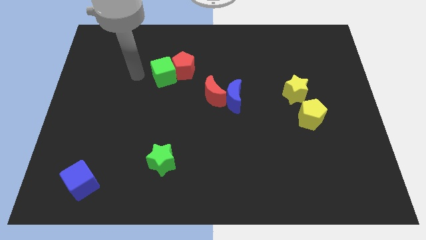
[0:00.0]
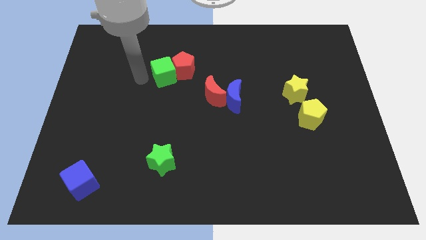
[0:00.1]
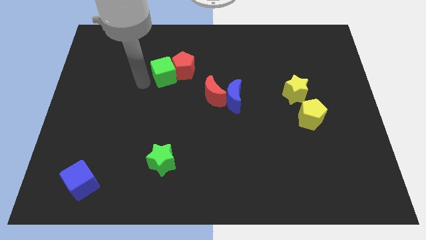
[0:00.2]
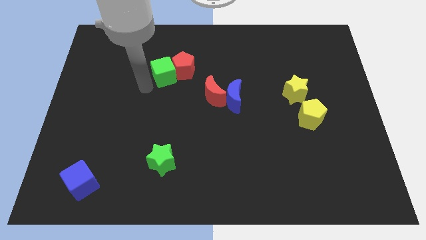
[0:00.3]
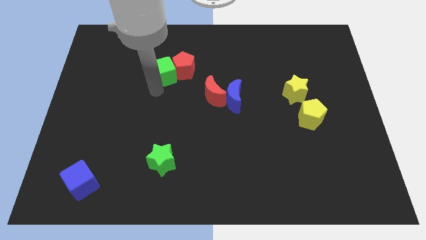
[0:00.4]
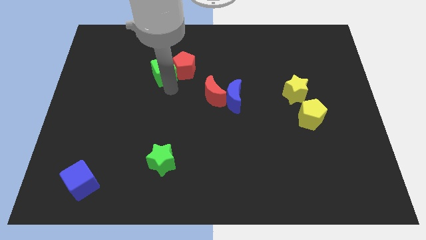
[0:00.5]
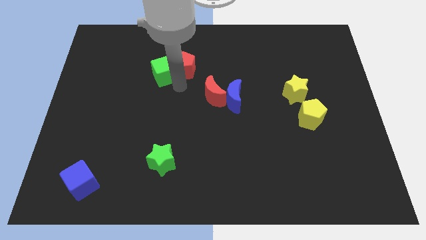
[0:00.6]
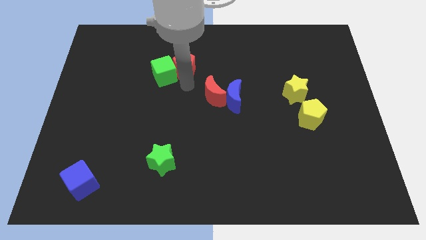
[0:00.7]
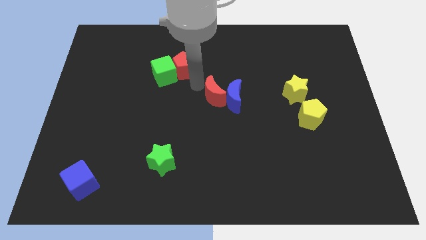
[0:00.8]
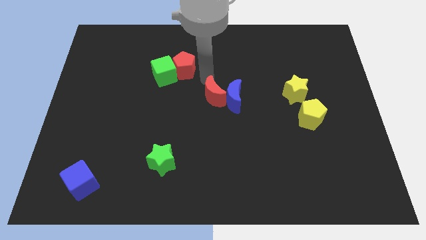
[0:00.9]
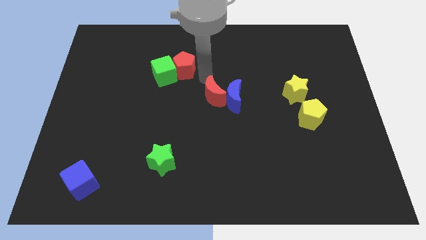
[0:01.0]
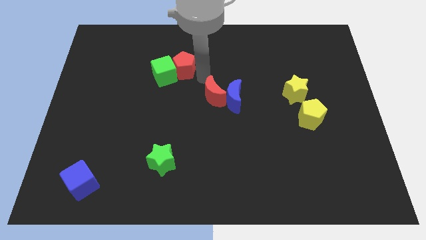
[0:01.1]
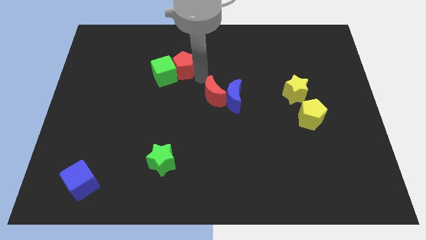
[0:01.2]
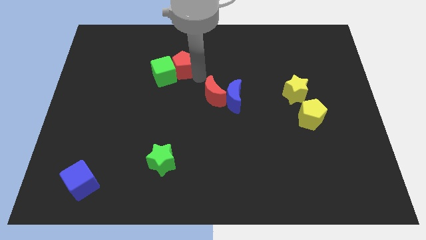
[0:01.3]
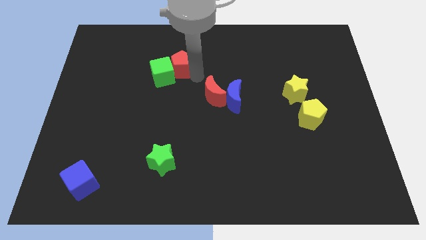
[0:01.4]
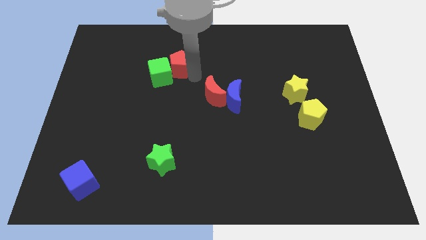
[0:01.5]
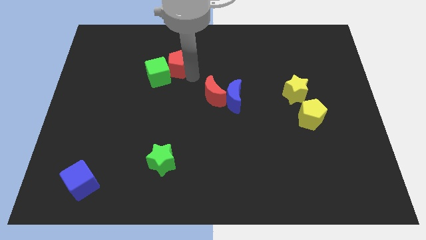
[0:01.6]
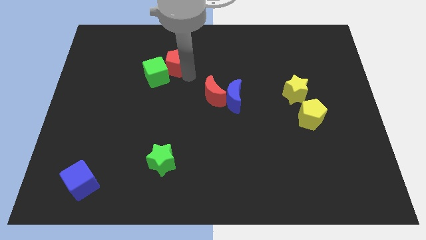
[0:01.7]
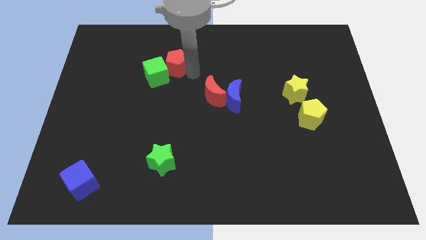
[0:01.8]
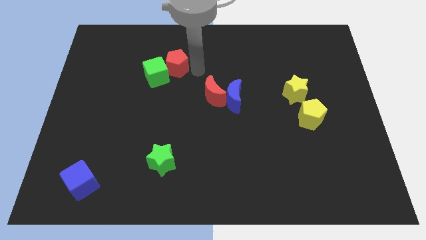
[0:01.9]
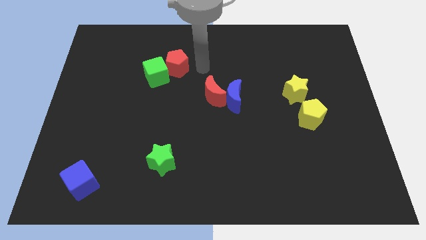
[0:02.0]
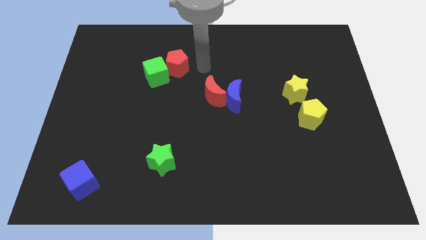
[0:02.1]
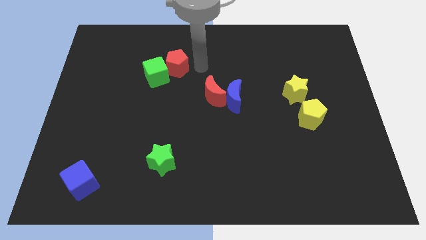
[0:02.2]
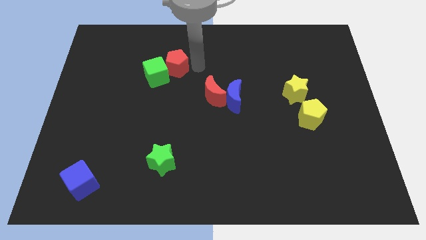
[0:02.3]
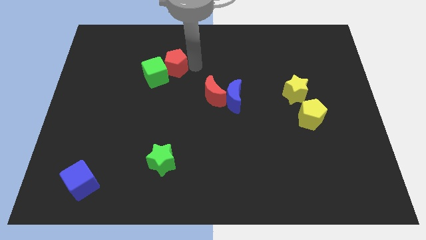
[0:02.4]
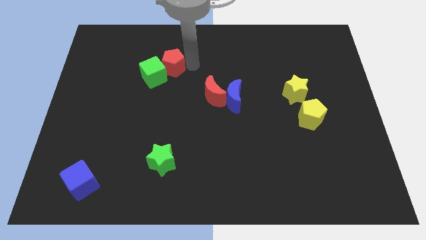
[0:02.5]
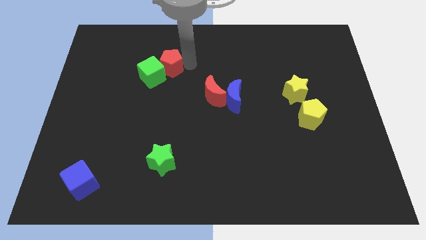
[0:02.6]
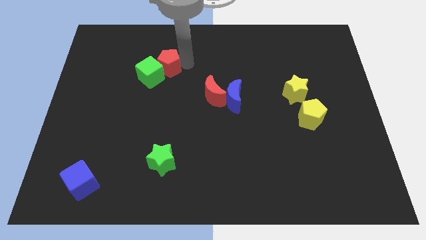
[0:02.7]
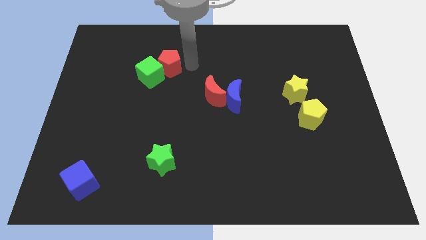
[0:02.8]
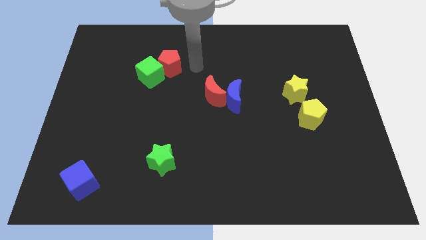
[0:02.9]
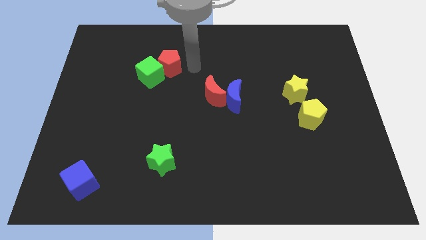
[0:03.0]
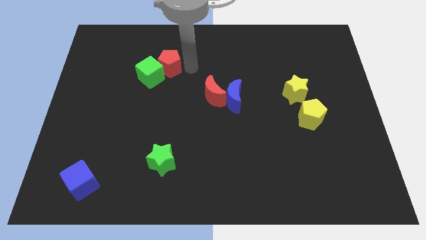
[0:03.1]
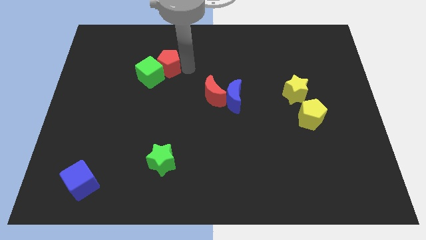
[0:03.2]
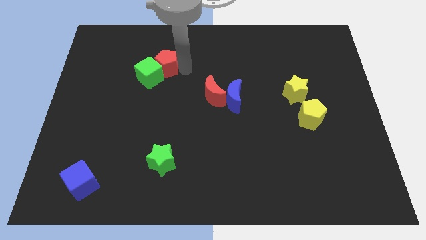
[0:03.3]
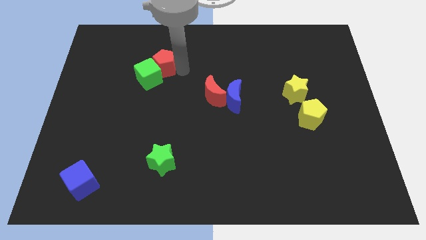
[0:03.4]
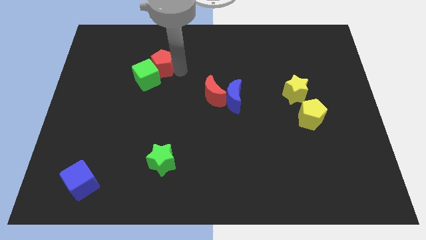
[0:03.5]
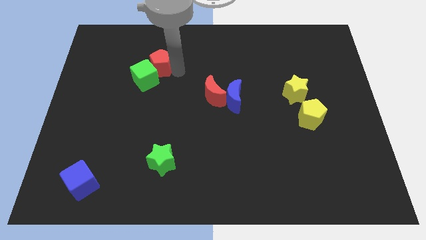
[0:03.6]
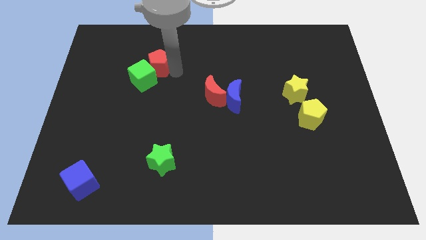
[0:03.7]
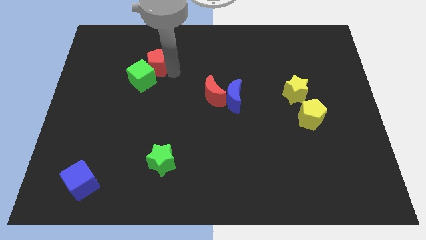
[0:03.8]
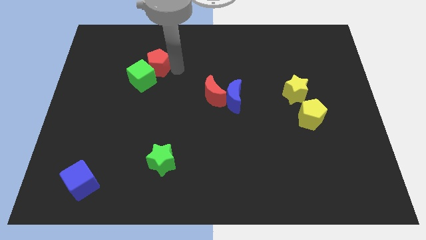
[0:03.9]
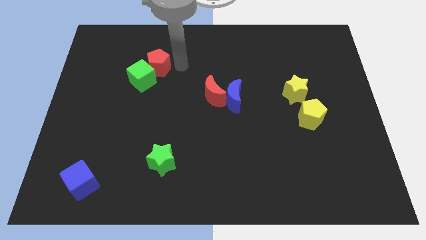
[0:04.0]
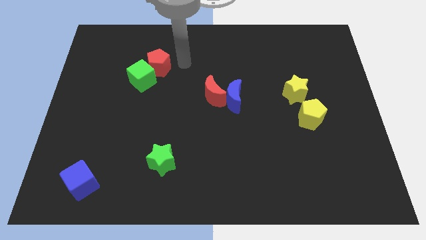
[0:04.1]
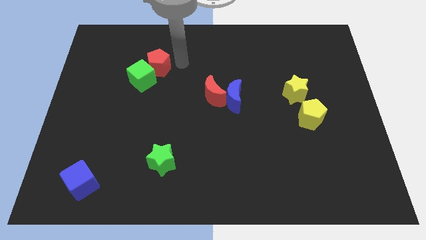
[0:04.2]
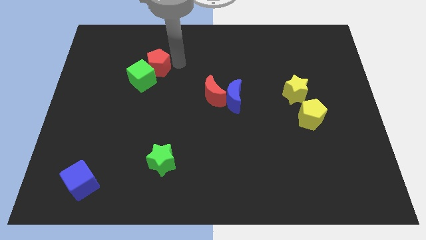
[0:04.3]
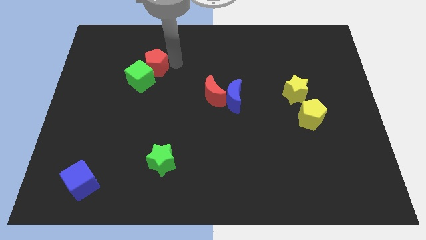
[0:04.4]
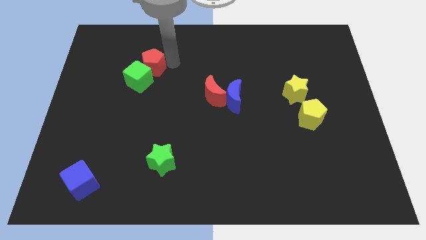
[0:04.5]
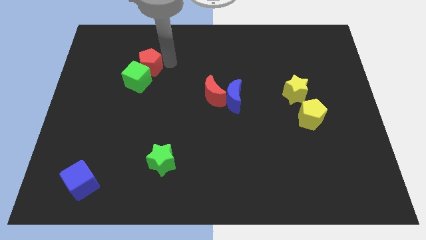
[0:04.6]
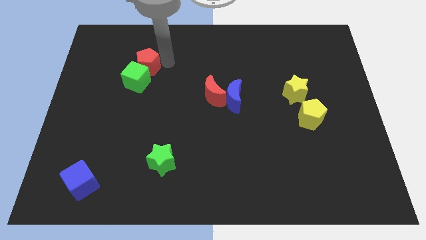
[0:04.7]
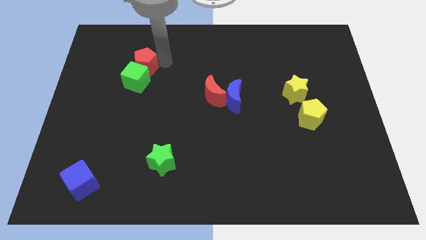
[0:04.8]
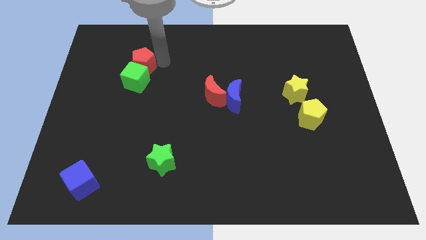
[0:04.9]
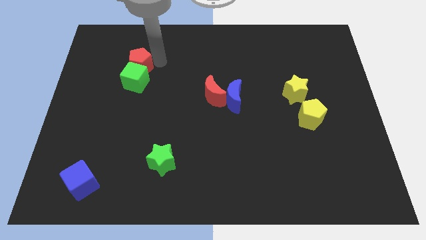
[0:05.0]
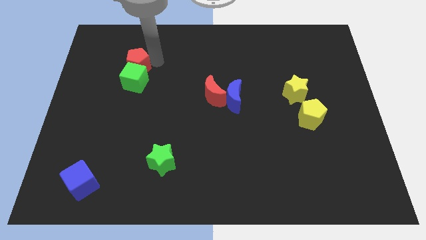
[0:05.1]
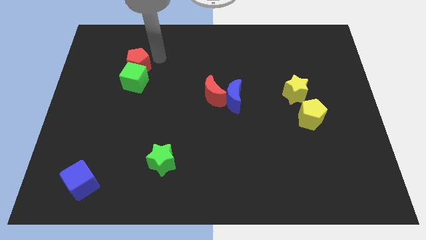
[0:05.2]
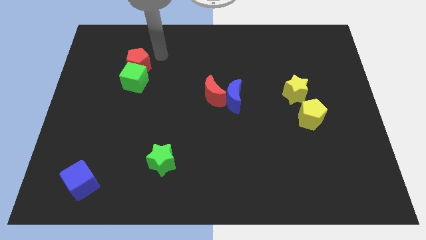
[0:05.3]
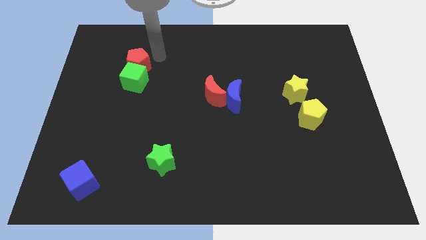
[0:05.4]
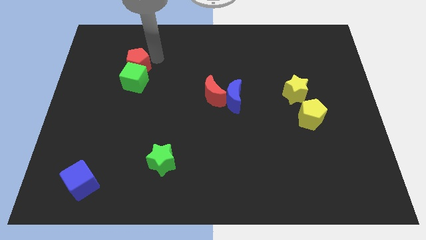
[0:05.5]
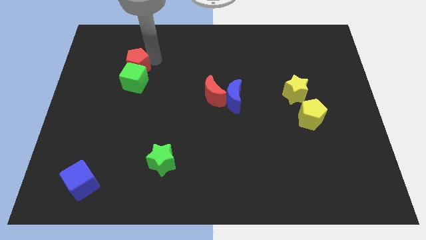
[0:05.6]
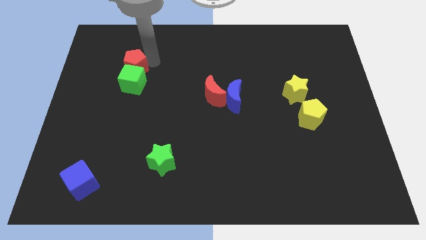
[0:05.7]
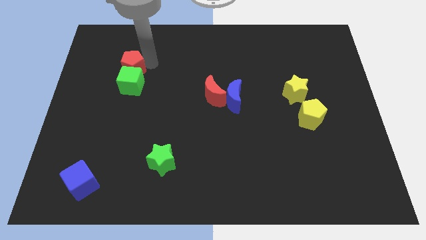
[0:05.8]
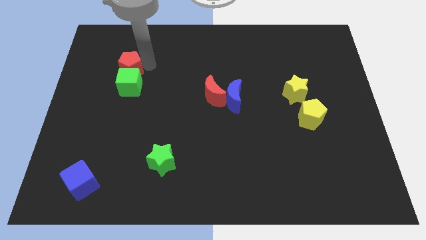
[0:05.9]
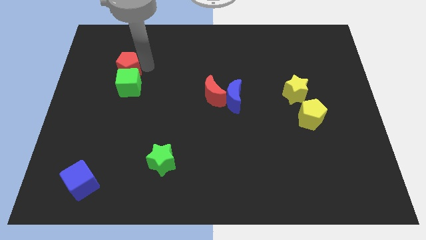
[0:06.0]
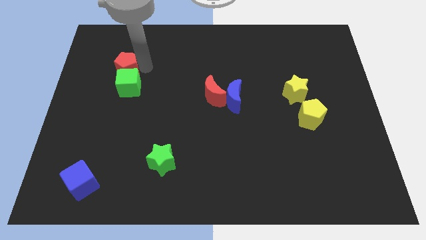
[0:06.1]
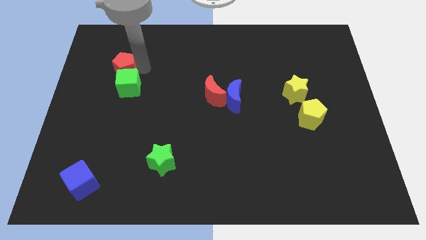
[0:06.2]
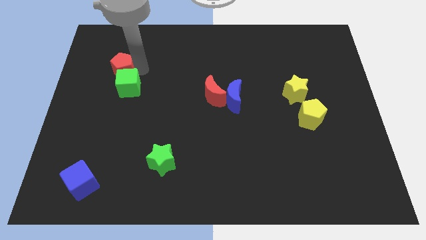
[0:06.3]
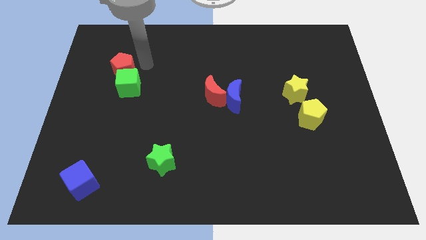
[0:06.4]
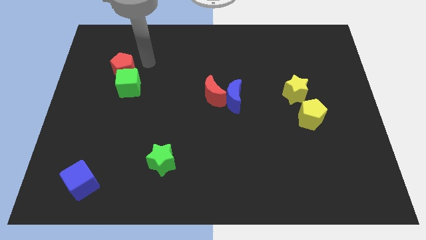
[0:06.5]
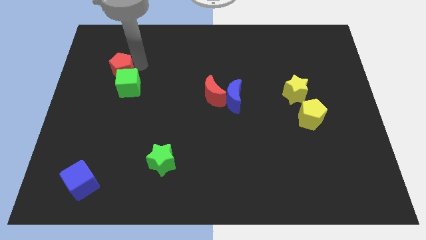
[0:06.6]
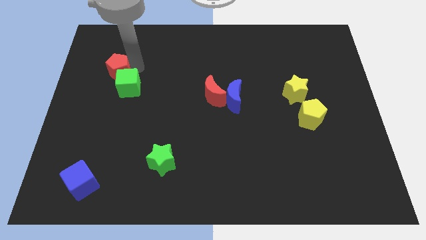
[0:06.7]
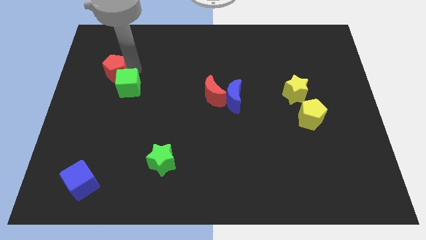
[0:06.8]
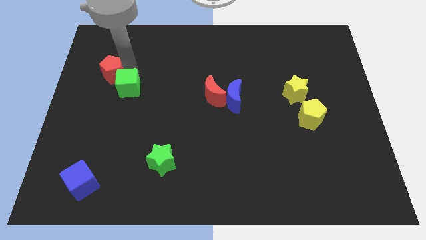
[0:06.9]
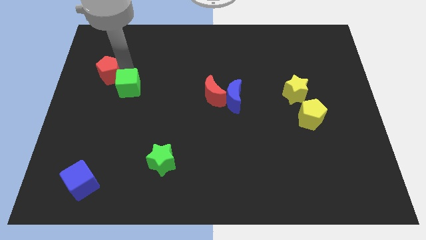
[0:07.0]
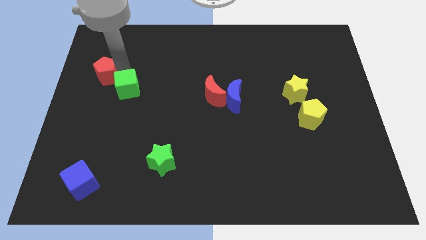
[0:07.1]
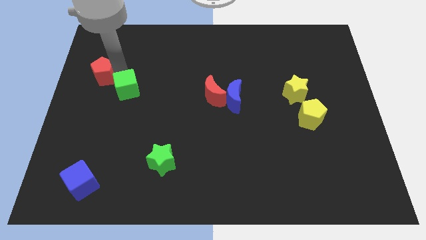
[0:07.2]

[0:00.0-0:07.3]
move the red pentagon to the left side

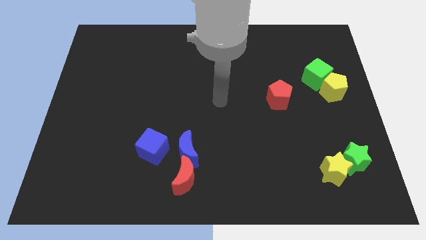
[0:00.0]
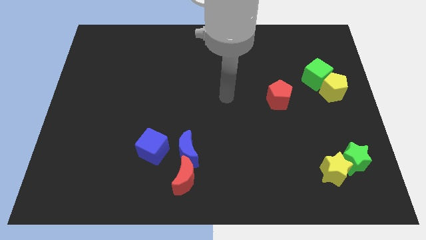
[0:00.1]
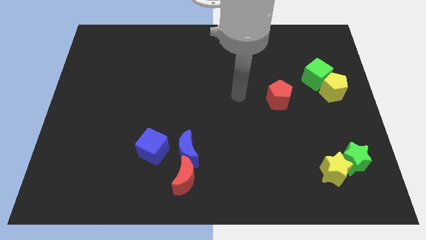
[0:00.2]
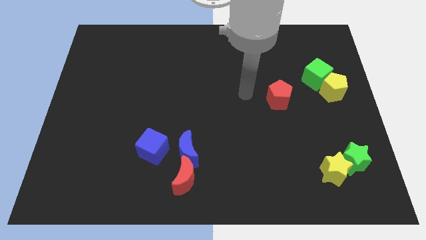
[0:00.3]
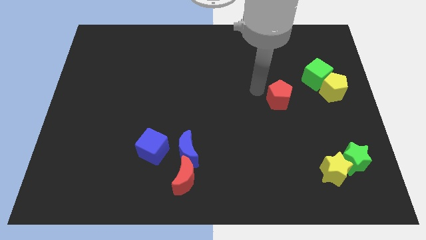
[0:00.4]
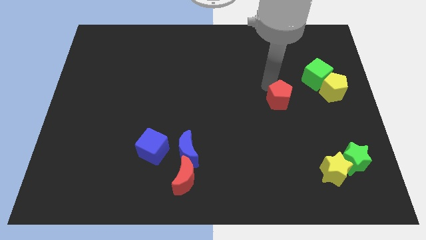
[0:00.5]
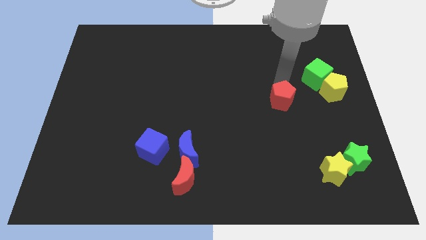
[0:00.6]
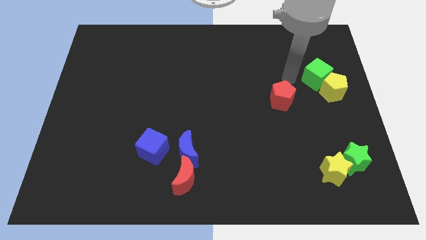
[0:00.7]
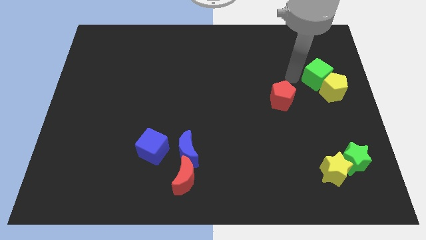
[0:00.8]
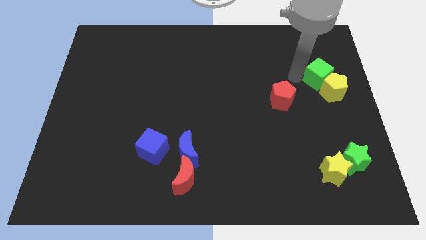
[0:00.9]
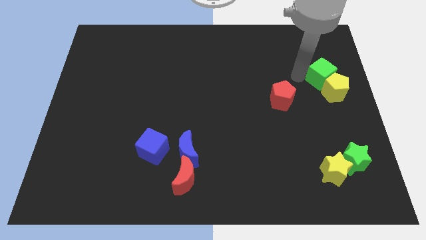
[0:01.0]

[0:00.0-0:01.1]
move the green cube to the center right
